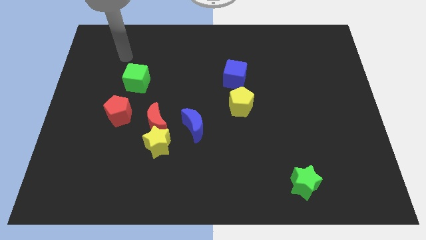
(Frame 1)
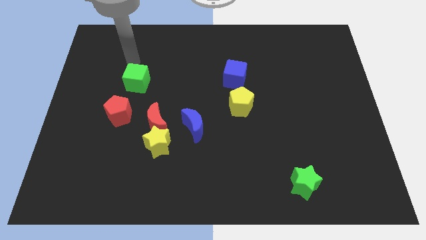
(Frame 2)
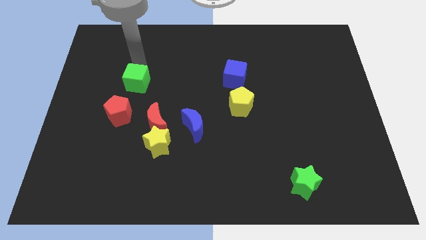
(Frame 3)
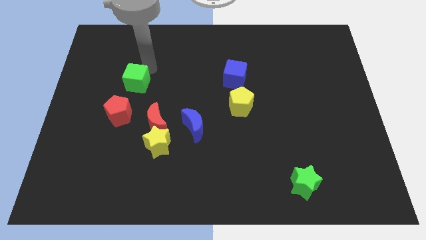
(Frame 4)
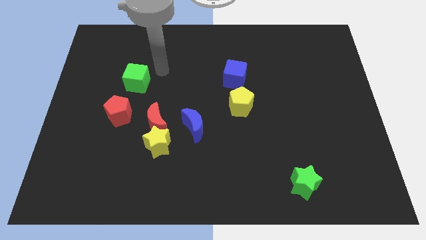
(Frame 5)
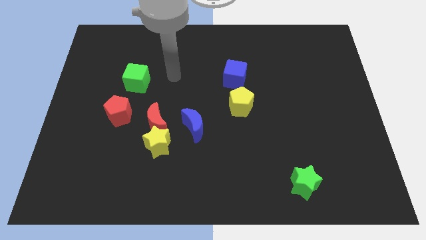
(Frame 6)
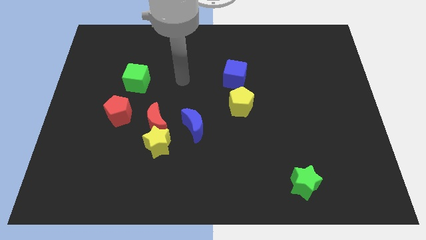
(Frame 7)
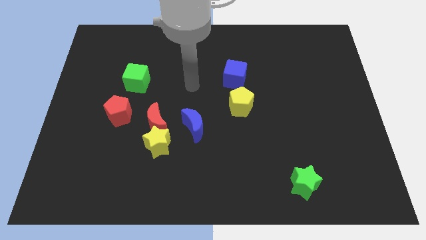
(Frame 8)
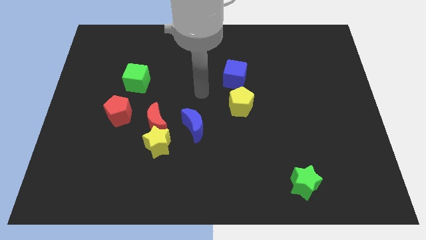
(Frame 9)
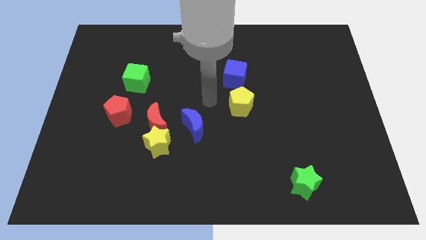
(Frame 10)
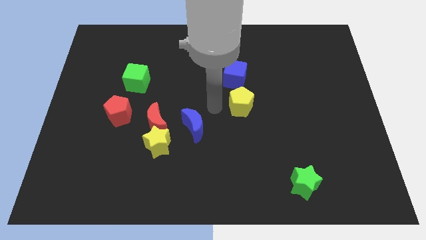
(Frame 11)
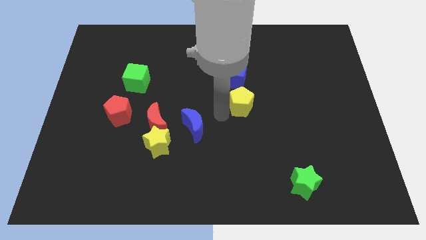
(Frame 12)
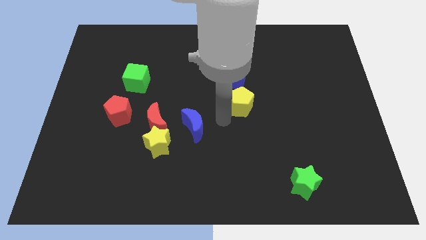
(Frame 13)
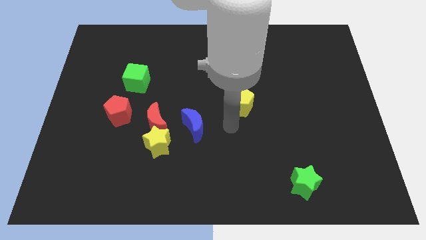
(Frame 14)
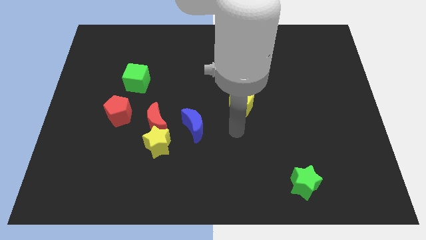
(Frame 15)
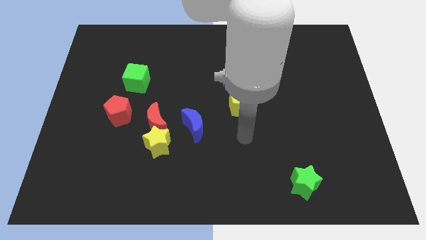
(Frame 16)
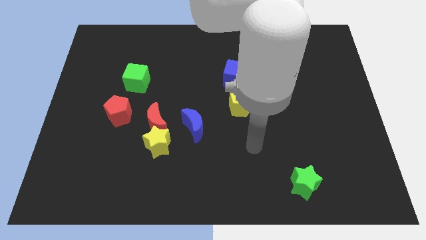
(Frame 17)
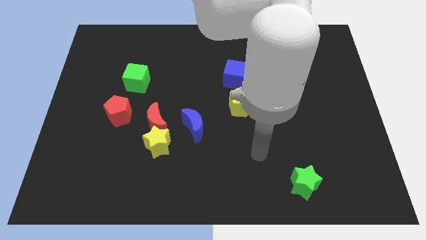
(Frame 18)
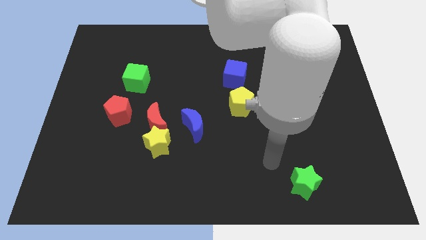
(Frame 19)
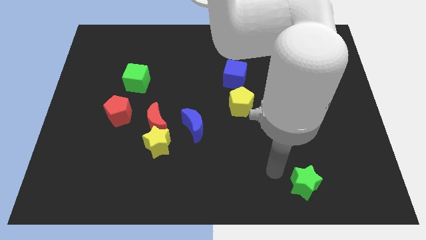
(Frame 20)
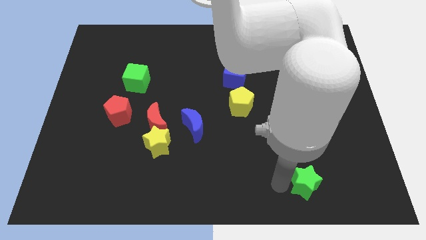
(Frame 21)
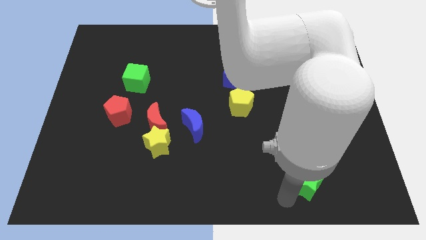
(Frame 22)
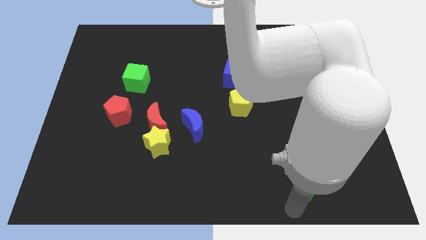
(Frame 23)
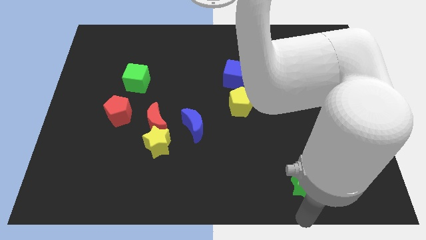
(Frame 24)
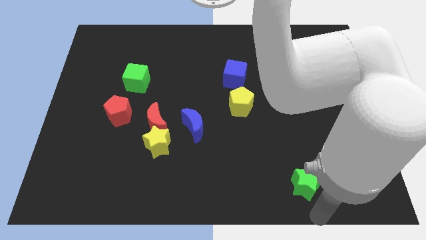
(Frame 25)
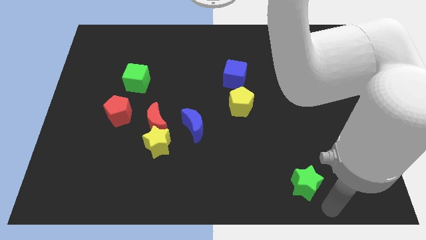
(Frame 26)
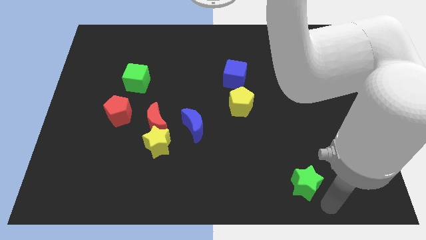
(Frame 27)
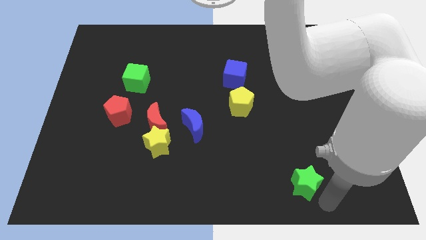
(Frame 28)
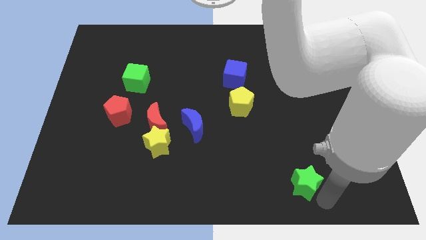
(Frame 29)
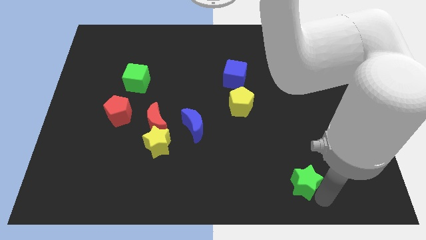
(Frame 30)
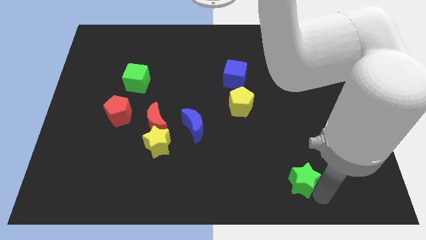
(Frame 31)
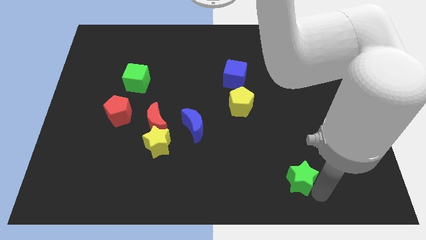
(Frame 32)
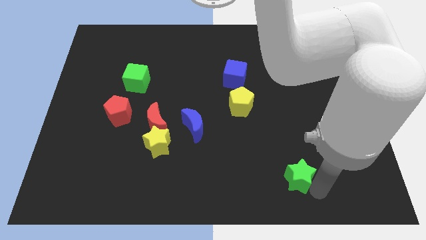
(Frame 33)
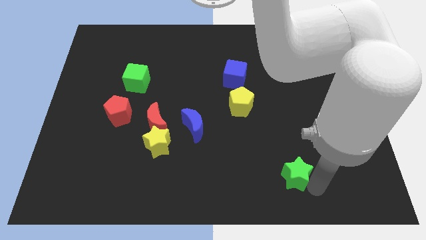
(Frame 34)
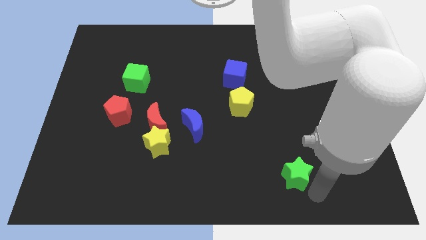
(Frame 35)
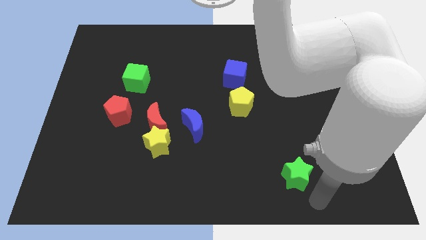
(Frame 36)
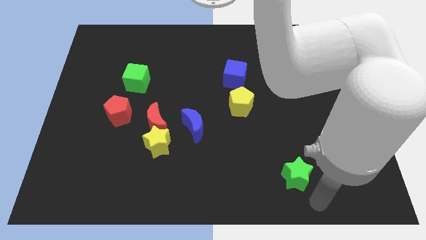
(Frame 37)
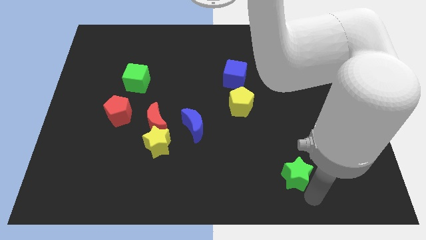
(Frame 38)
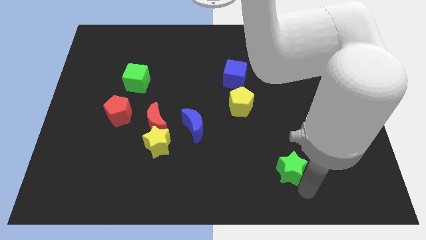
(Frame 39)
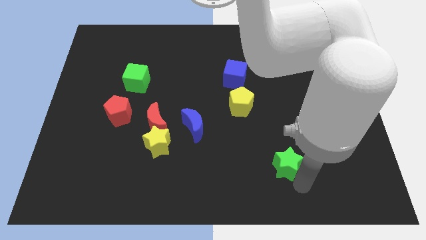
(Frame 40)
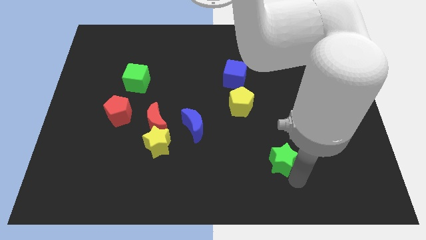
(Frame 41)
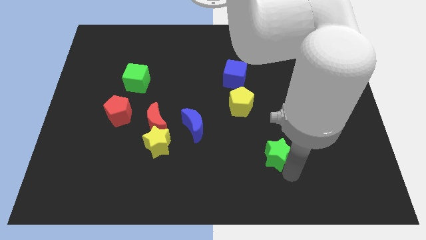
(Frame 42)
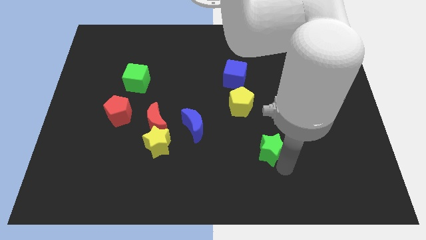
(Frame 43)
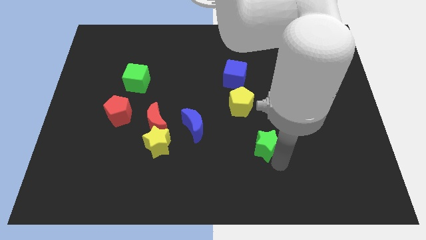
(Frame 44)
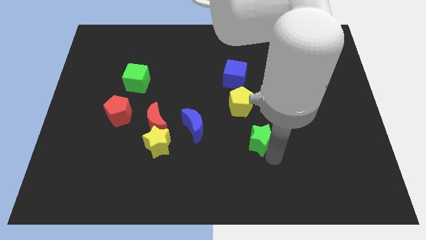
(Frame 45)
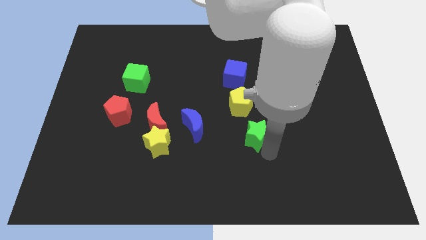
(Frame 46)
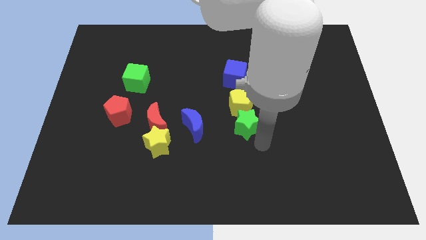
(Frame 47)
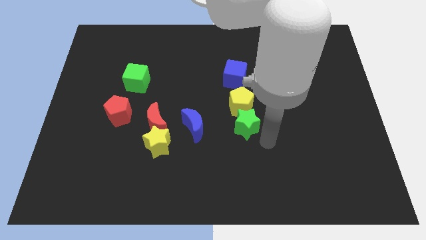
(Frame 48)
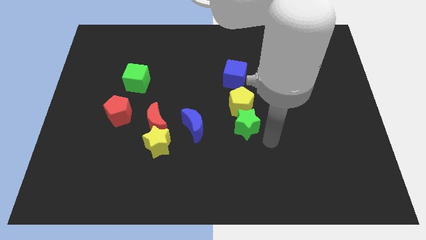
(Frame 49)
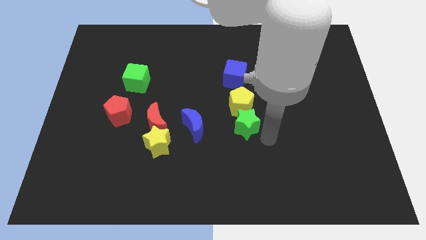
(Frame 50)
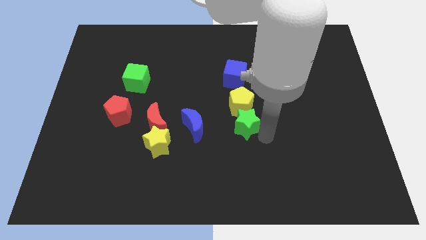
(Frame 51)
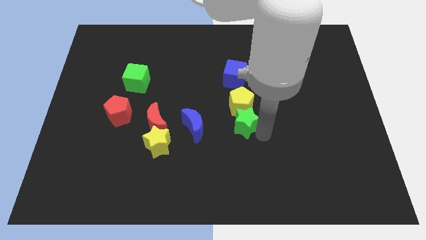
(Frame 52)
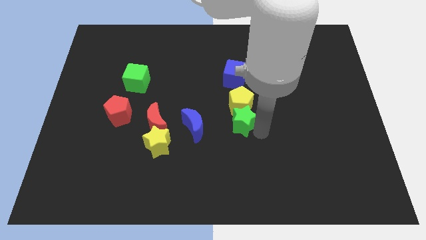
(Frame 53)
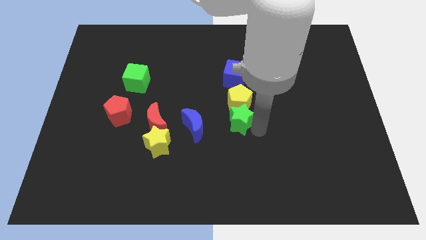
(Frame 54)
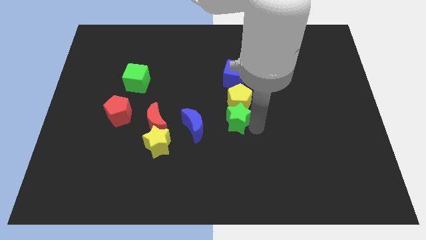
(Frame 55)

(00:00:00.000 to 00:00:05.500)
move the green star diagonally up and left

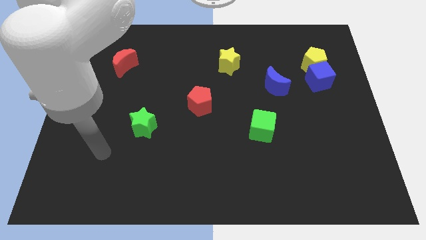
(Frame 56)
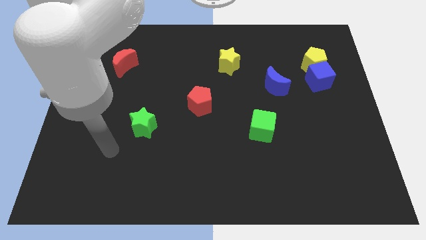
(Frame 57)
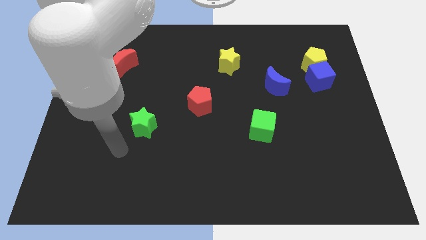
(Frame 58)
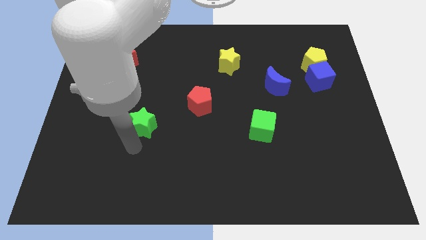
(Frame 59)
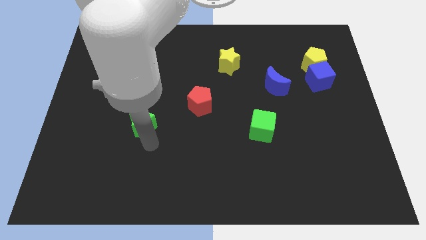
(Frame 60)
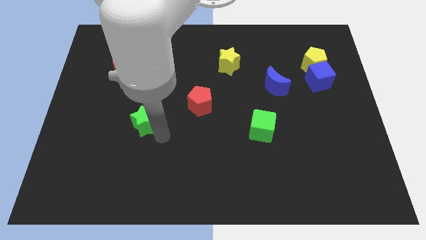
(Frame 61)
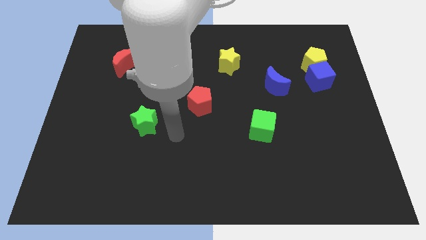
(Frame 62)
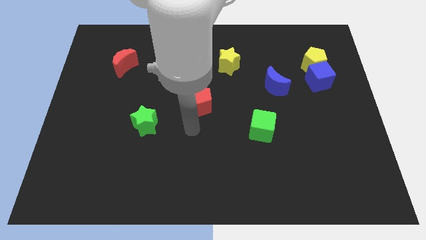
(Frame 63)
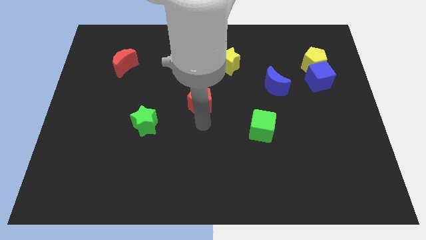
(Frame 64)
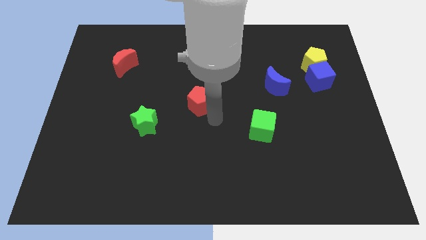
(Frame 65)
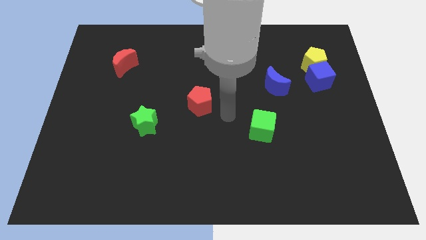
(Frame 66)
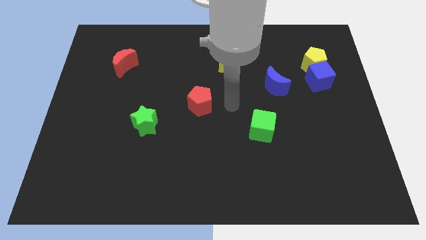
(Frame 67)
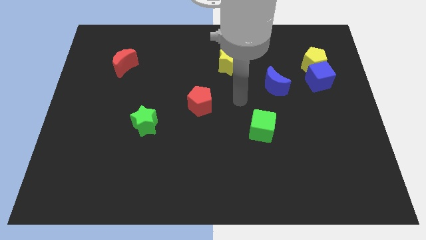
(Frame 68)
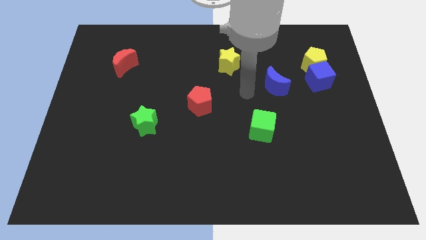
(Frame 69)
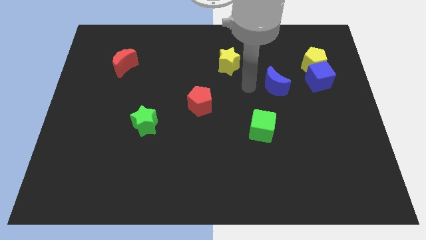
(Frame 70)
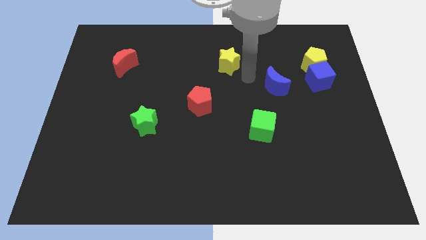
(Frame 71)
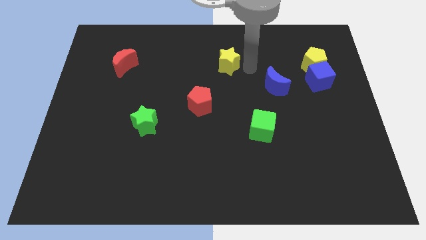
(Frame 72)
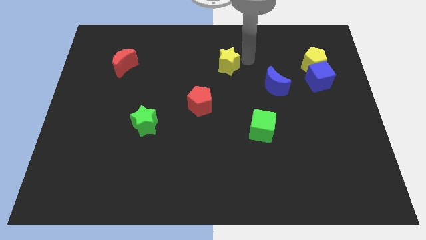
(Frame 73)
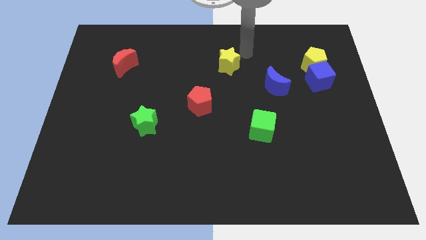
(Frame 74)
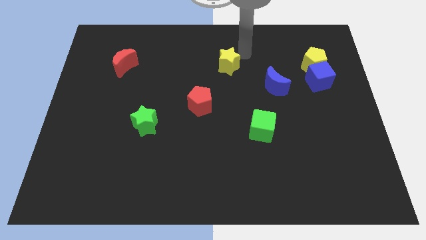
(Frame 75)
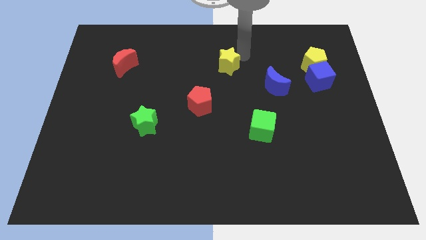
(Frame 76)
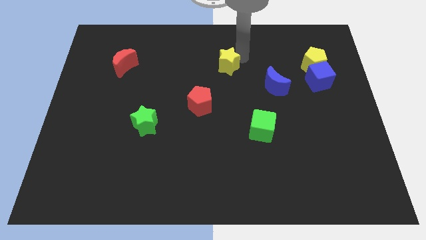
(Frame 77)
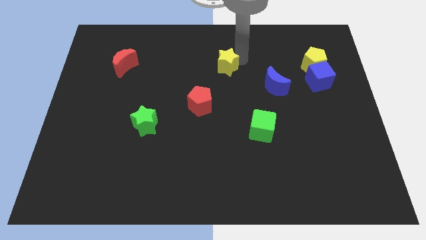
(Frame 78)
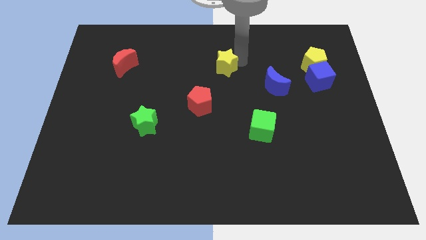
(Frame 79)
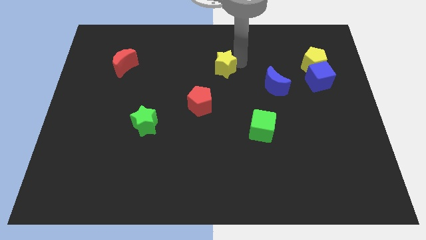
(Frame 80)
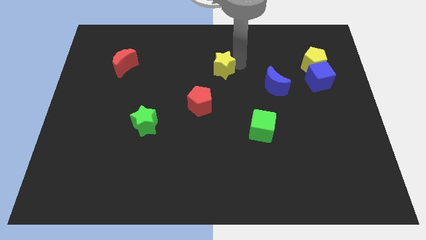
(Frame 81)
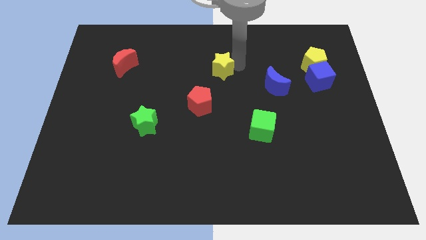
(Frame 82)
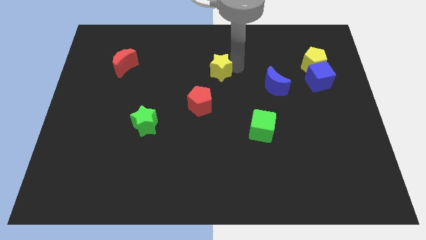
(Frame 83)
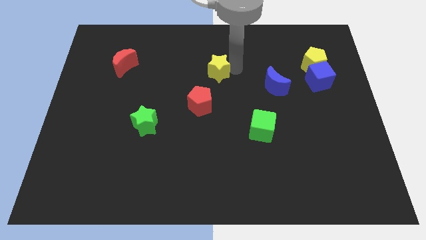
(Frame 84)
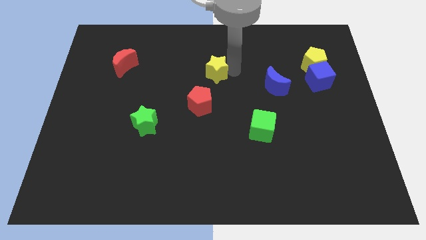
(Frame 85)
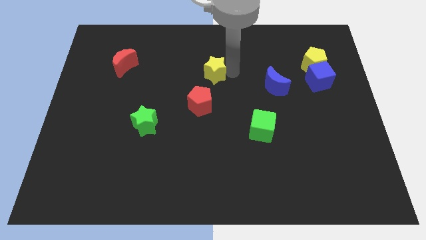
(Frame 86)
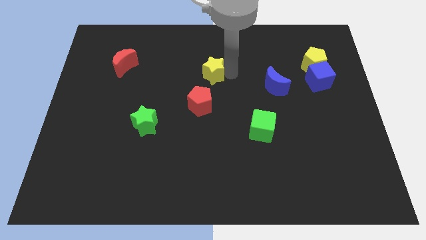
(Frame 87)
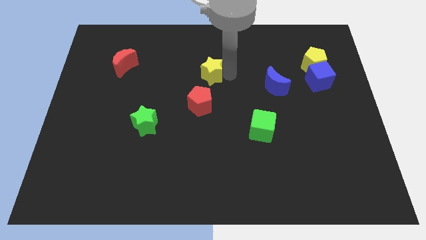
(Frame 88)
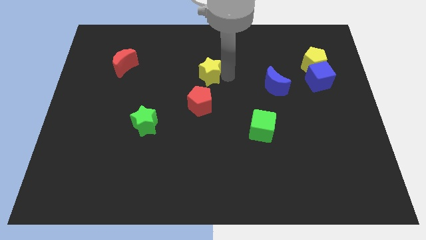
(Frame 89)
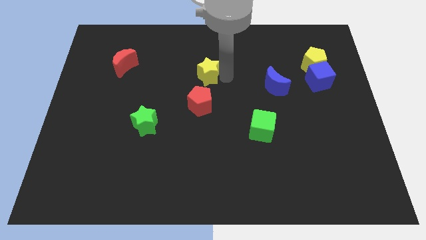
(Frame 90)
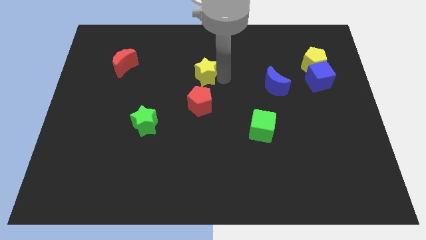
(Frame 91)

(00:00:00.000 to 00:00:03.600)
move the yellow star down and to the left a bit
